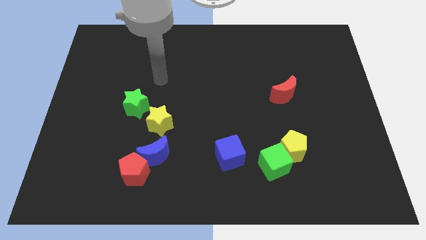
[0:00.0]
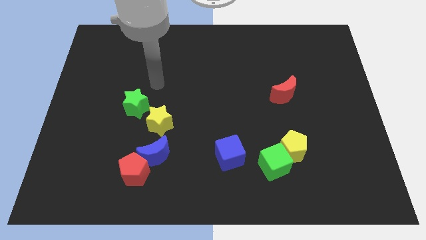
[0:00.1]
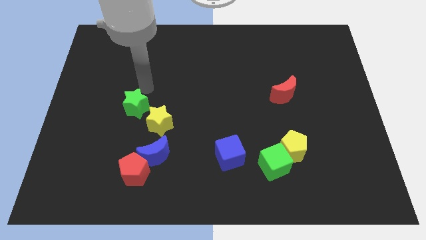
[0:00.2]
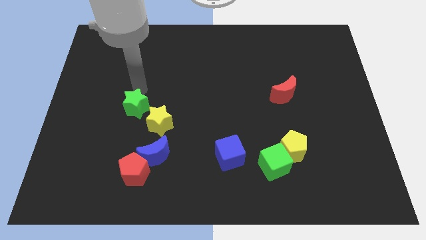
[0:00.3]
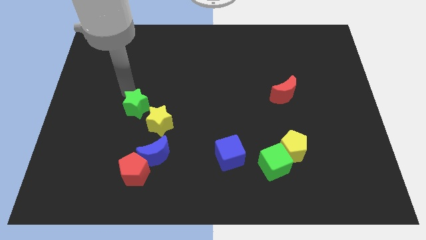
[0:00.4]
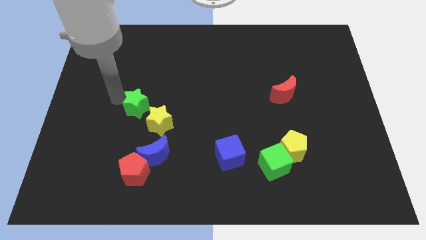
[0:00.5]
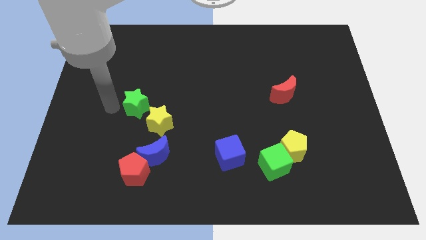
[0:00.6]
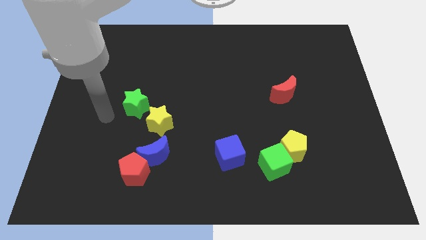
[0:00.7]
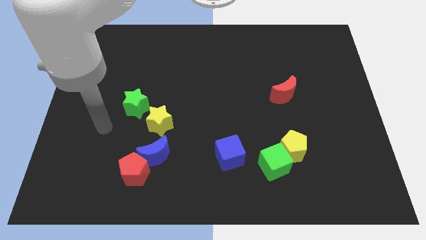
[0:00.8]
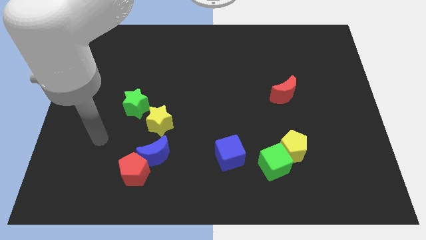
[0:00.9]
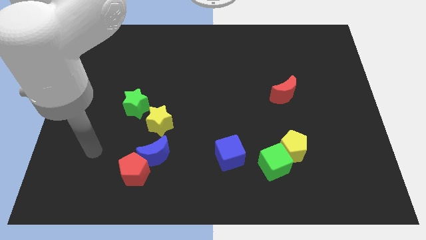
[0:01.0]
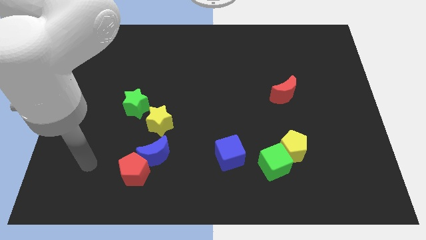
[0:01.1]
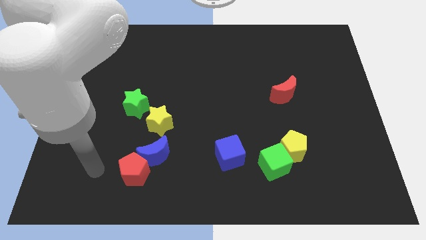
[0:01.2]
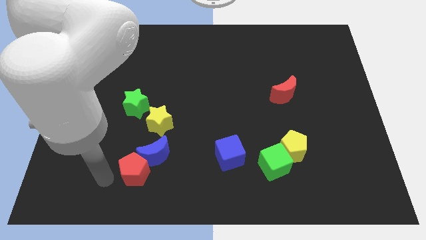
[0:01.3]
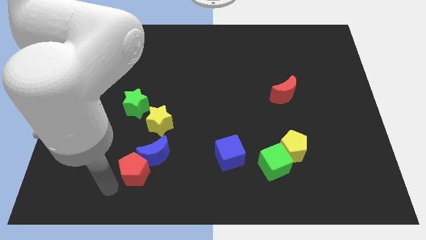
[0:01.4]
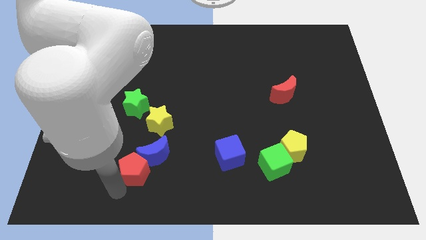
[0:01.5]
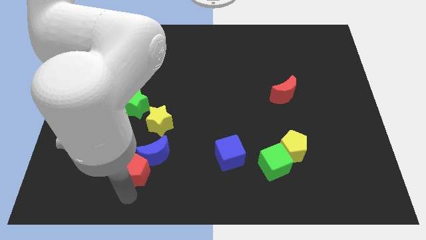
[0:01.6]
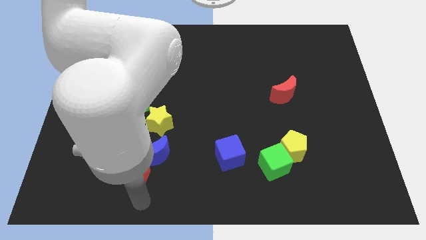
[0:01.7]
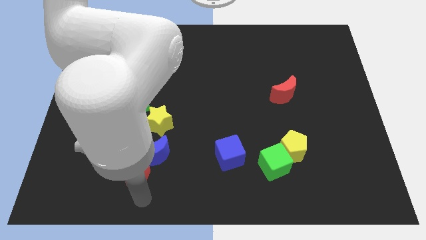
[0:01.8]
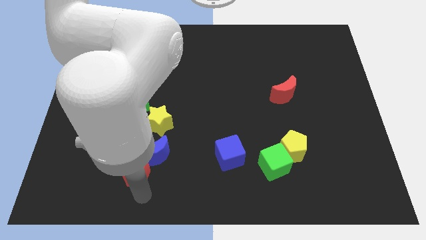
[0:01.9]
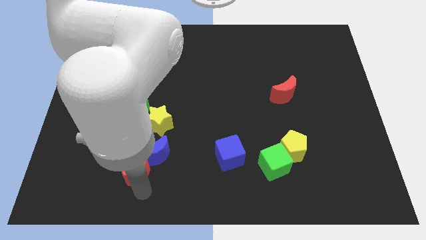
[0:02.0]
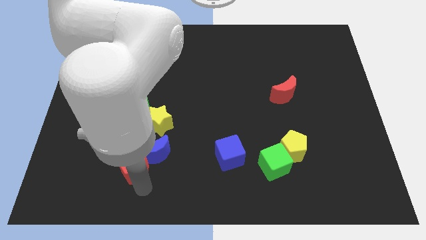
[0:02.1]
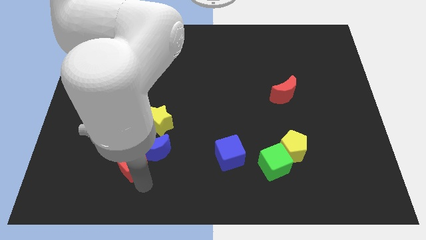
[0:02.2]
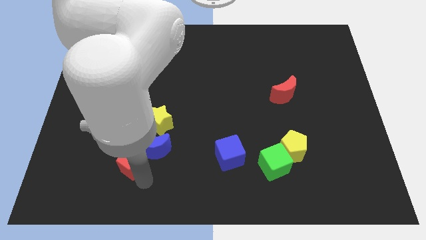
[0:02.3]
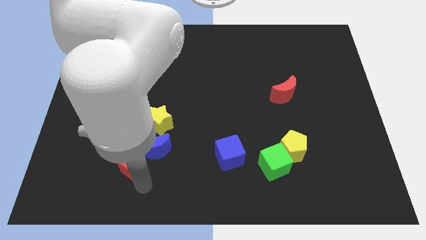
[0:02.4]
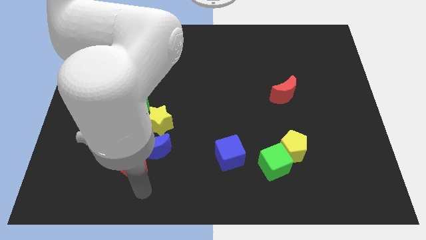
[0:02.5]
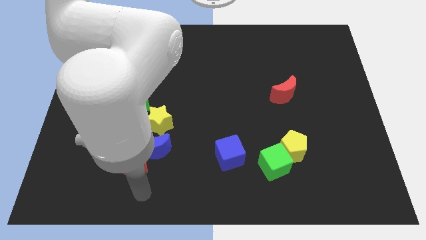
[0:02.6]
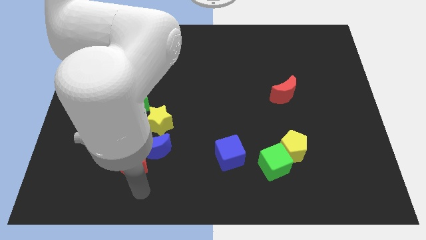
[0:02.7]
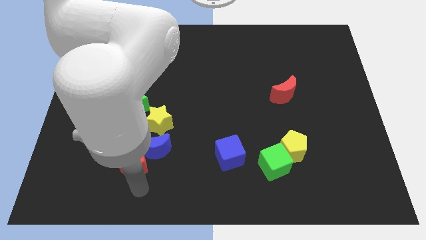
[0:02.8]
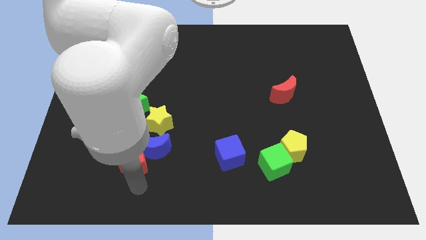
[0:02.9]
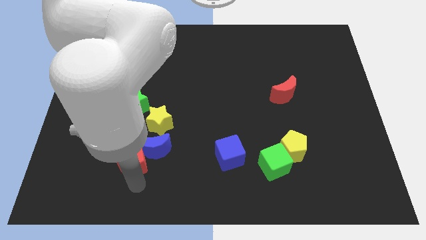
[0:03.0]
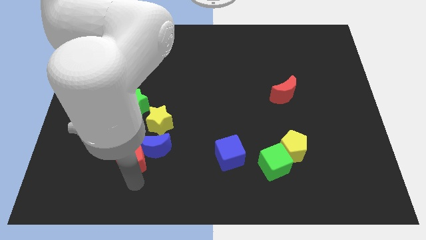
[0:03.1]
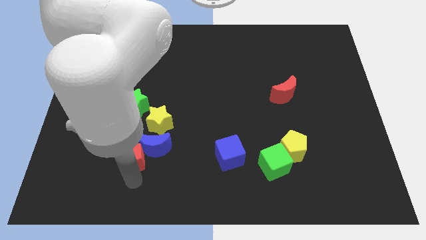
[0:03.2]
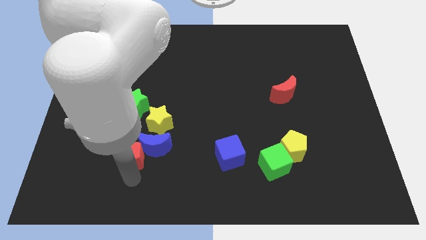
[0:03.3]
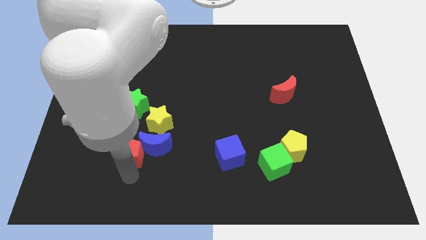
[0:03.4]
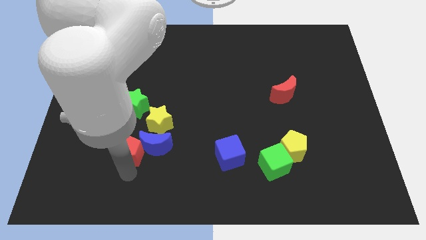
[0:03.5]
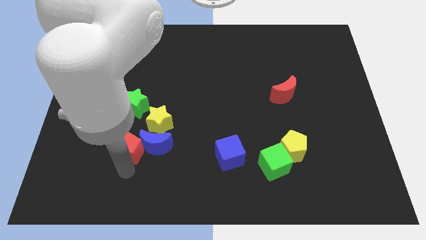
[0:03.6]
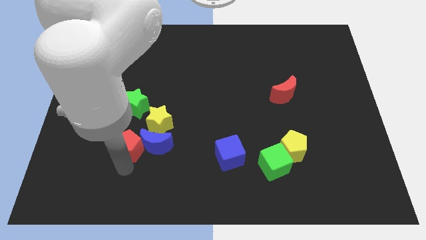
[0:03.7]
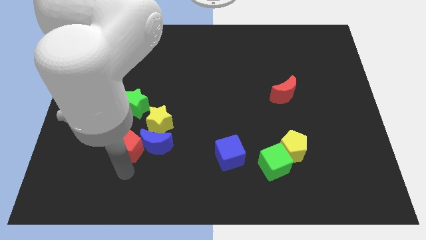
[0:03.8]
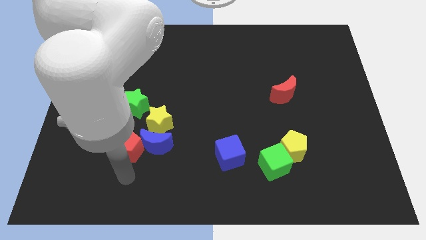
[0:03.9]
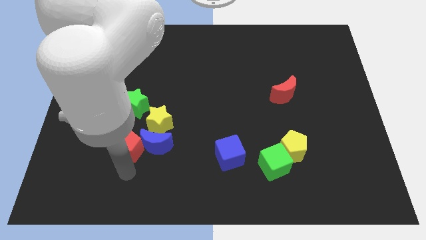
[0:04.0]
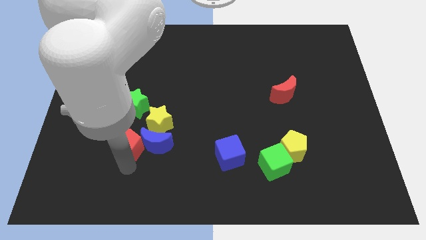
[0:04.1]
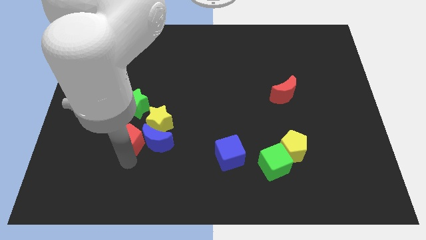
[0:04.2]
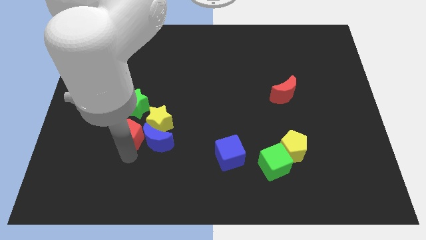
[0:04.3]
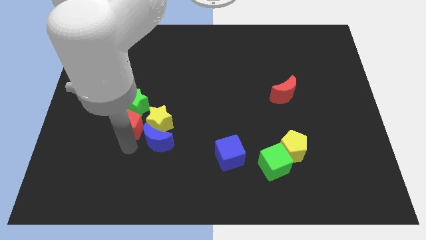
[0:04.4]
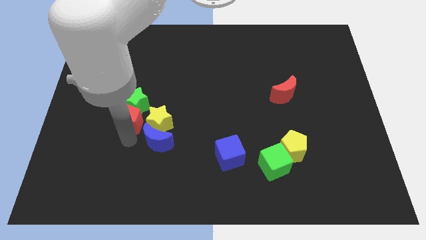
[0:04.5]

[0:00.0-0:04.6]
slide the red pentagon close to the green star

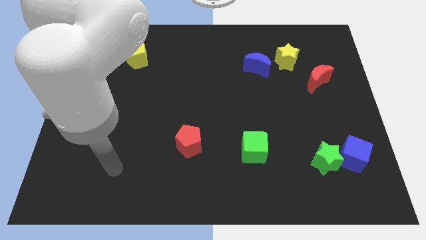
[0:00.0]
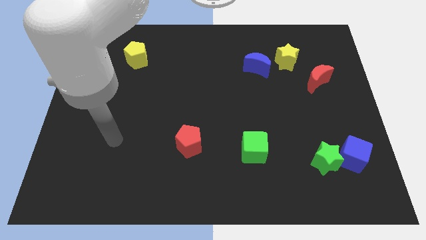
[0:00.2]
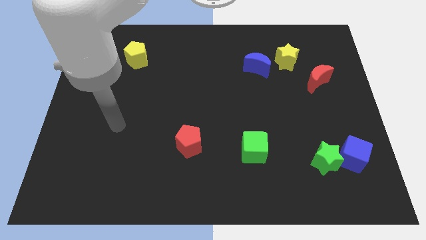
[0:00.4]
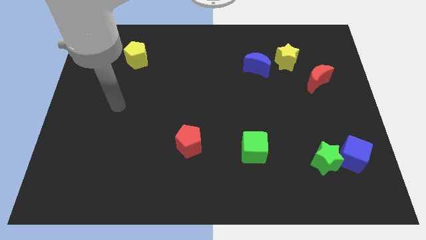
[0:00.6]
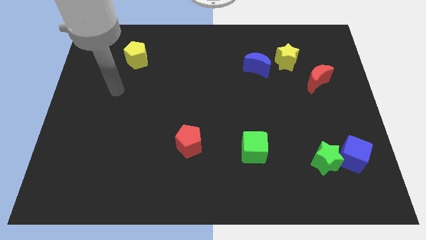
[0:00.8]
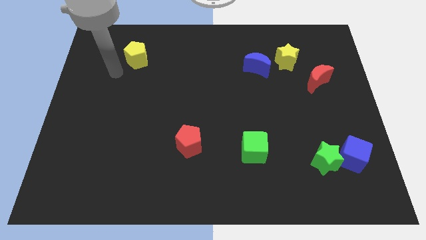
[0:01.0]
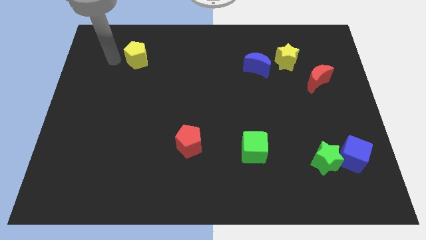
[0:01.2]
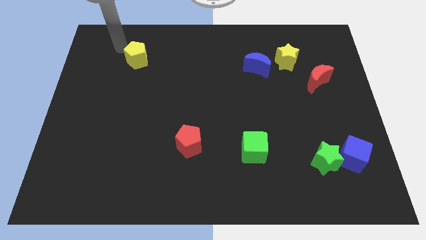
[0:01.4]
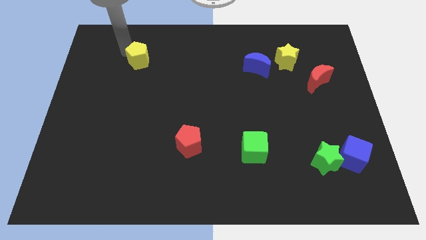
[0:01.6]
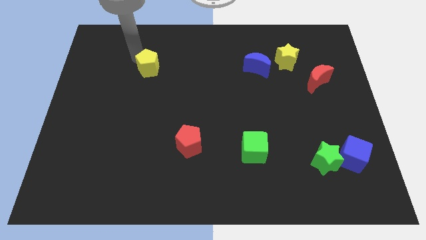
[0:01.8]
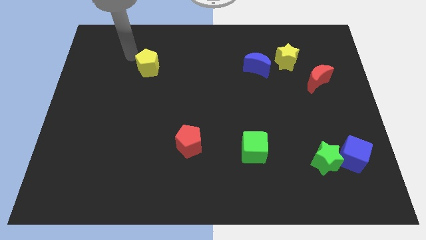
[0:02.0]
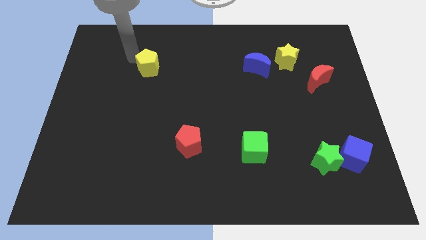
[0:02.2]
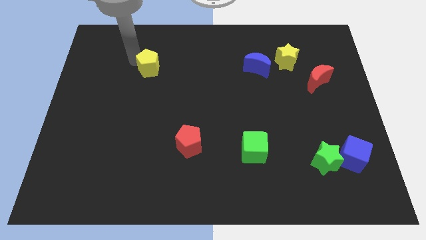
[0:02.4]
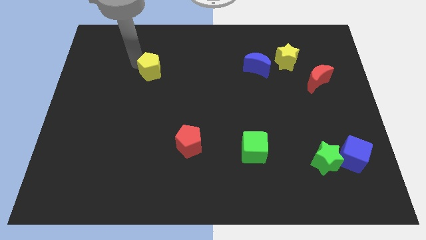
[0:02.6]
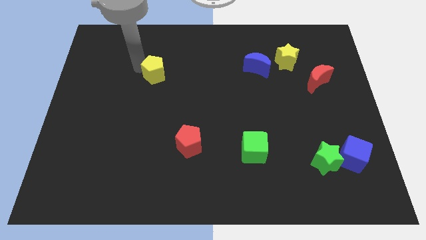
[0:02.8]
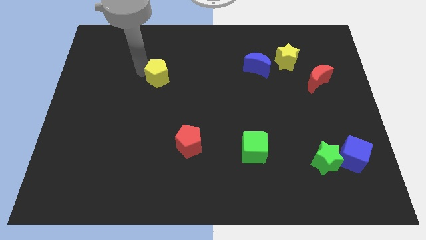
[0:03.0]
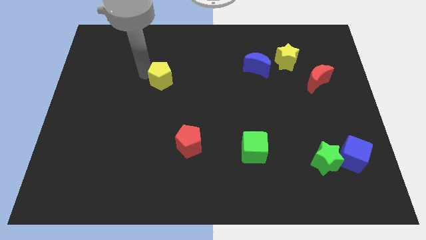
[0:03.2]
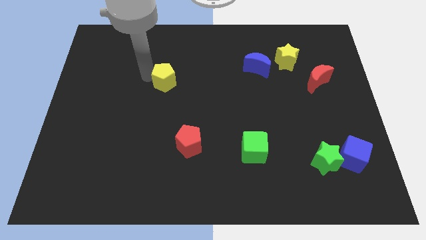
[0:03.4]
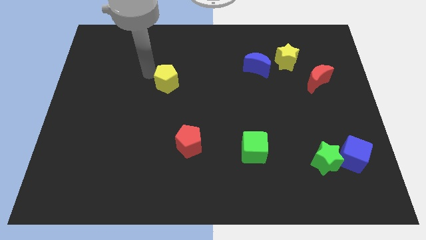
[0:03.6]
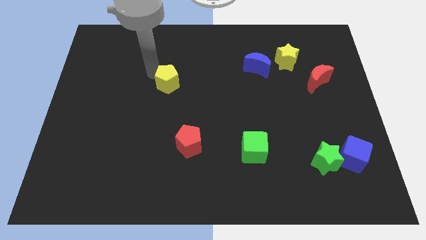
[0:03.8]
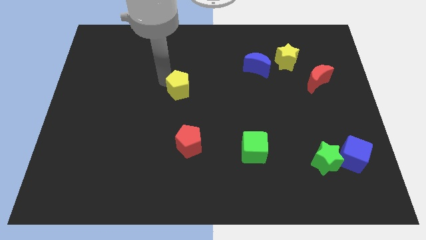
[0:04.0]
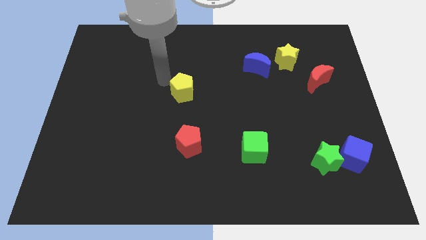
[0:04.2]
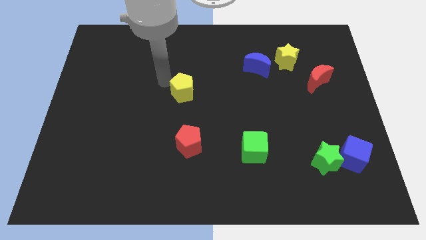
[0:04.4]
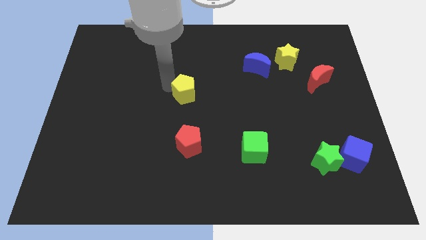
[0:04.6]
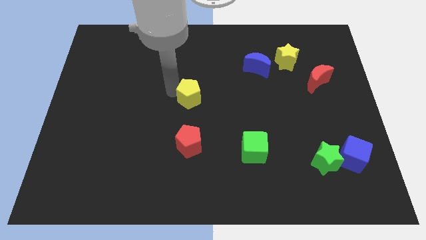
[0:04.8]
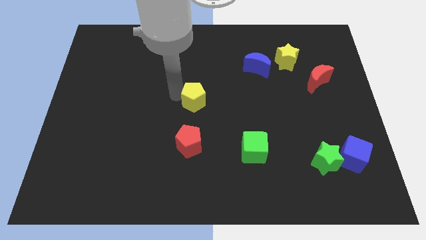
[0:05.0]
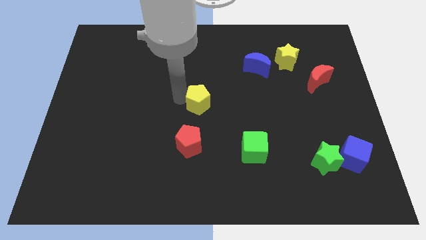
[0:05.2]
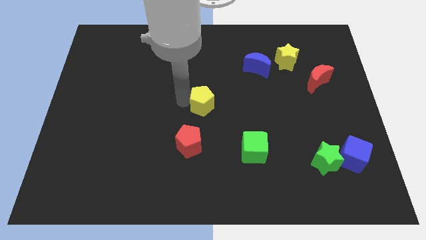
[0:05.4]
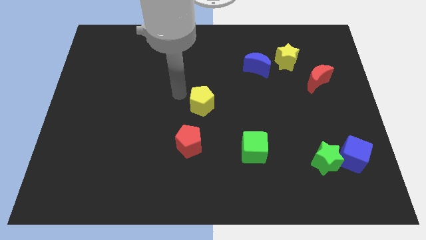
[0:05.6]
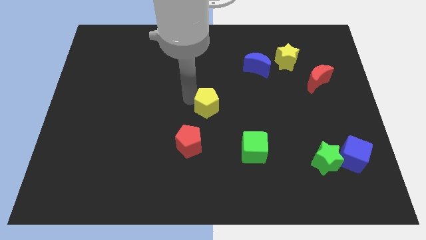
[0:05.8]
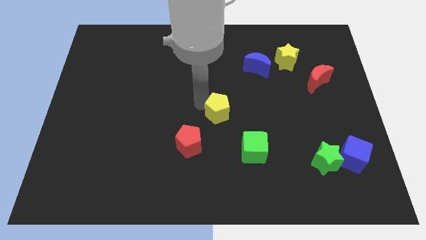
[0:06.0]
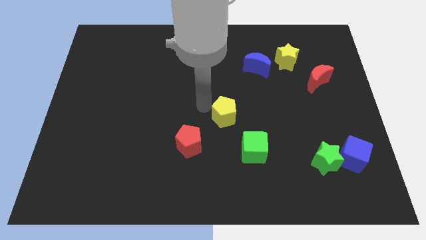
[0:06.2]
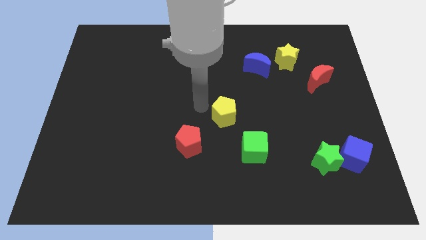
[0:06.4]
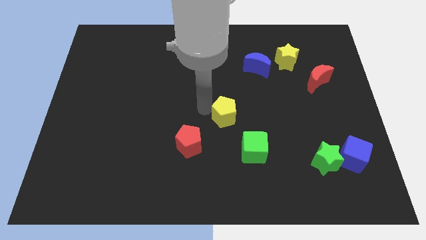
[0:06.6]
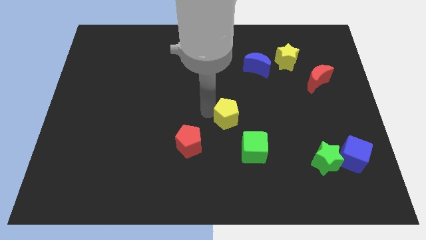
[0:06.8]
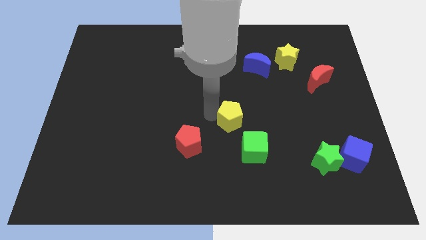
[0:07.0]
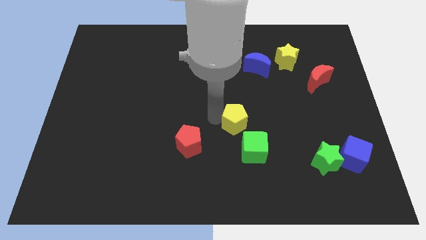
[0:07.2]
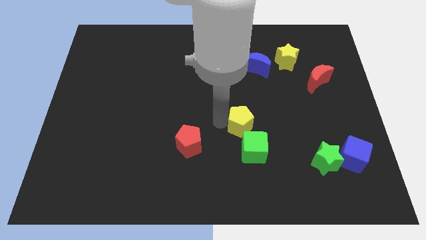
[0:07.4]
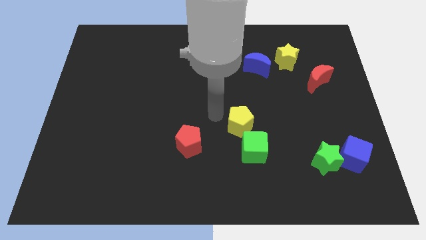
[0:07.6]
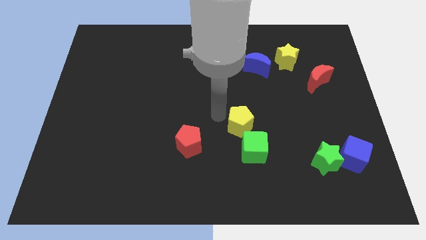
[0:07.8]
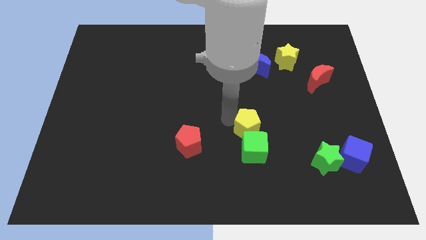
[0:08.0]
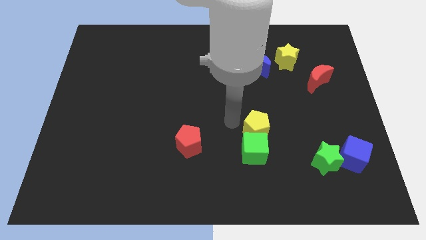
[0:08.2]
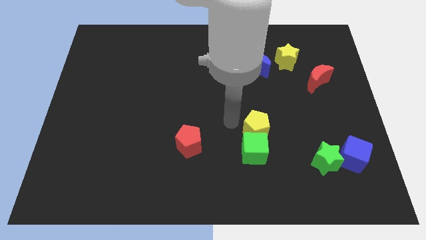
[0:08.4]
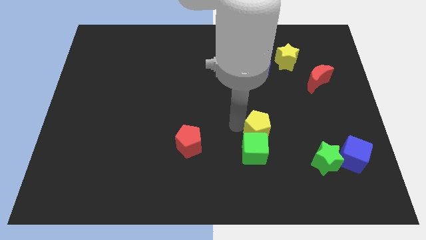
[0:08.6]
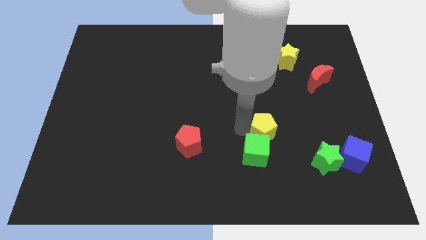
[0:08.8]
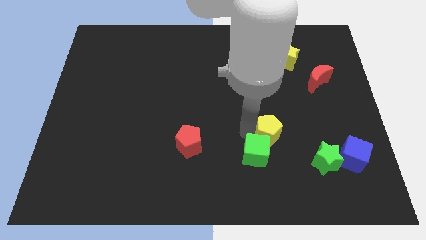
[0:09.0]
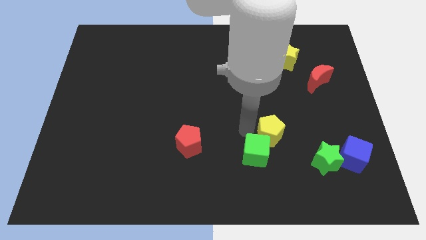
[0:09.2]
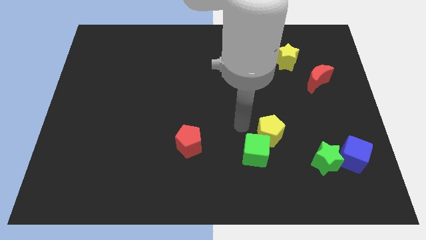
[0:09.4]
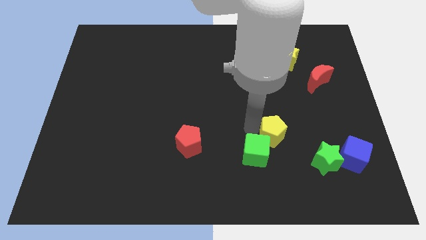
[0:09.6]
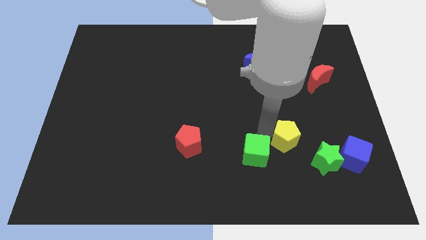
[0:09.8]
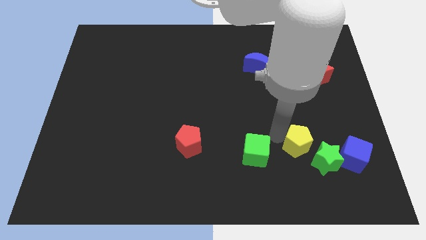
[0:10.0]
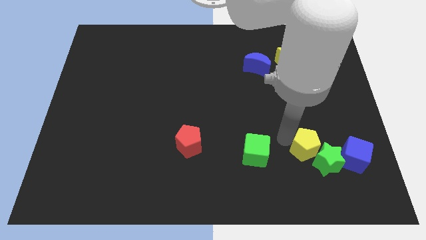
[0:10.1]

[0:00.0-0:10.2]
move the yellow pentagon towards the green star
